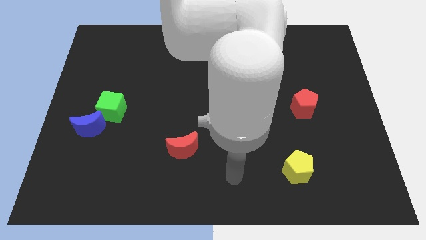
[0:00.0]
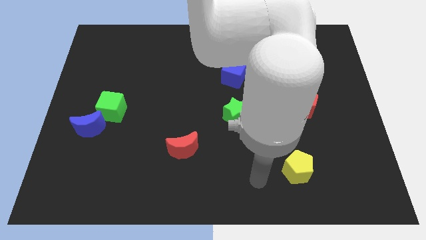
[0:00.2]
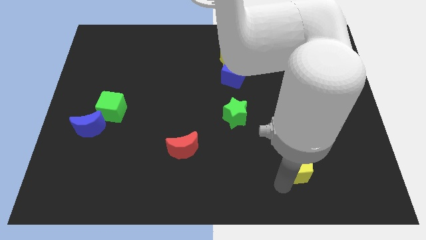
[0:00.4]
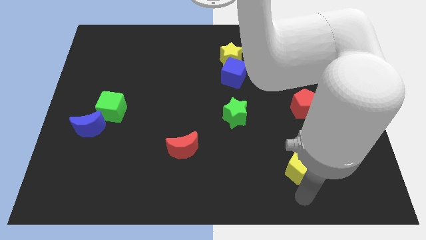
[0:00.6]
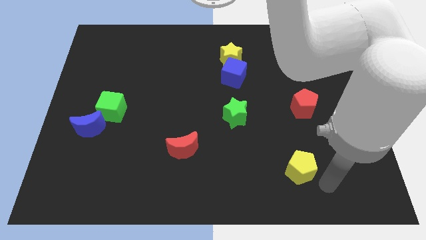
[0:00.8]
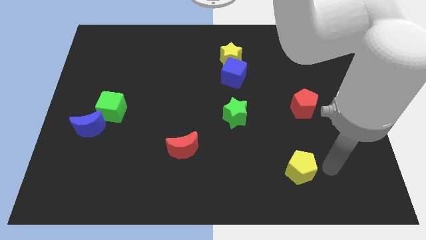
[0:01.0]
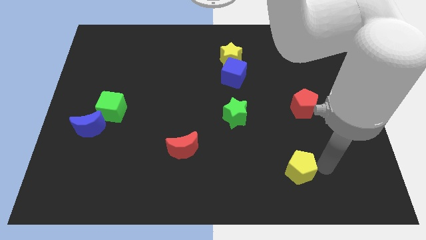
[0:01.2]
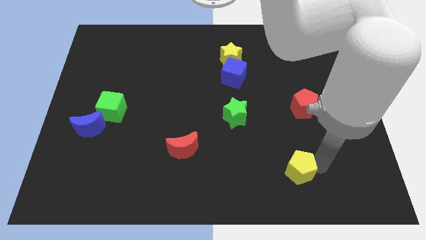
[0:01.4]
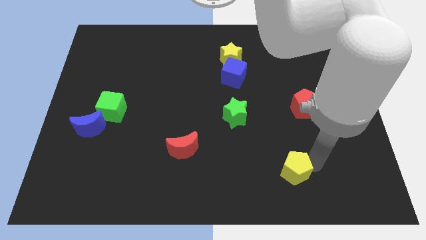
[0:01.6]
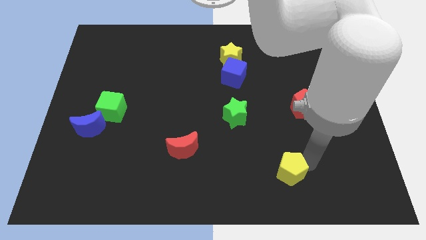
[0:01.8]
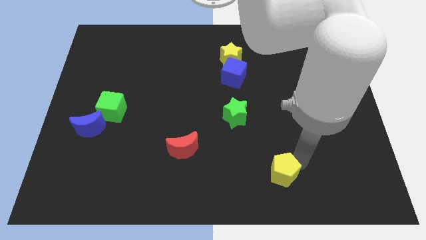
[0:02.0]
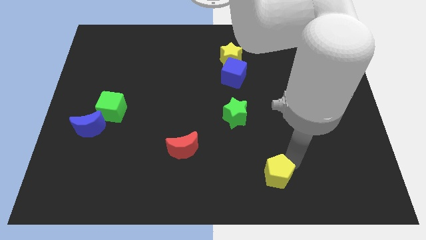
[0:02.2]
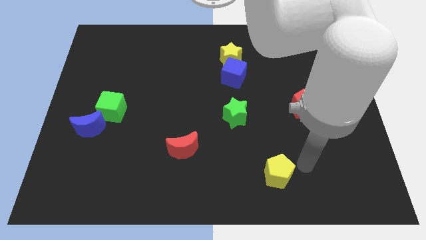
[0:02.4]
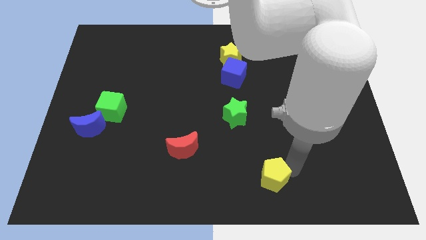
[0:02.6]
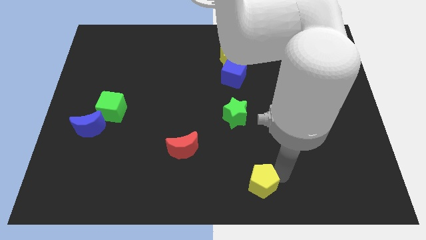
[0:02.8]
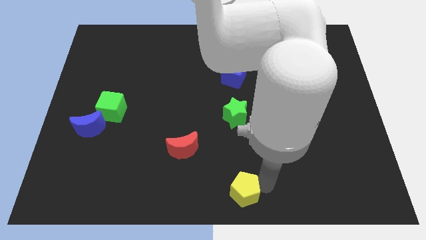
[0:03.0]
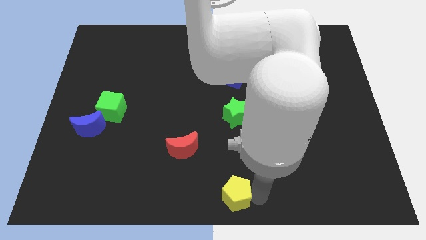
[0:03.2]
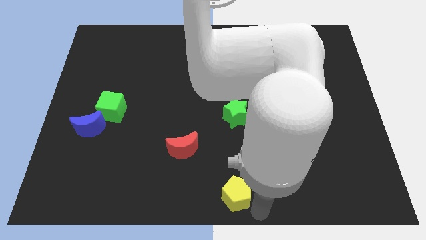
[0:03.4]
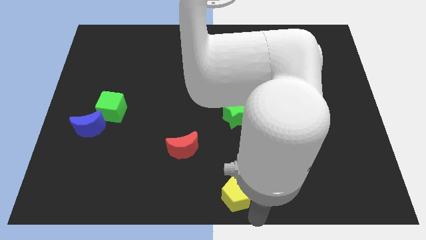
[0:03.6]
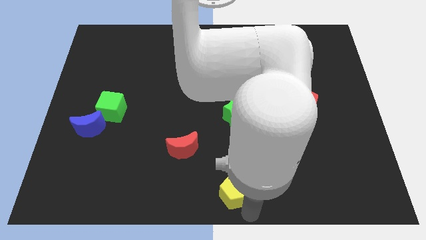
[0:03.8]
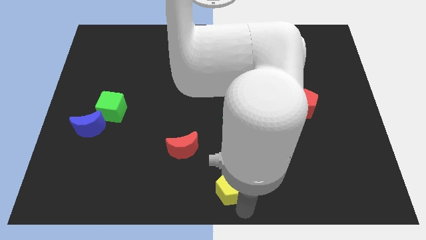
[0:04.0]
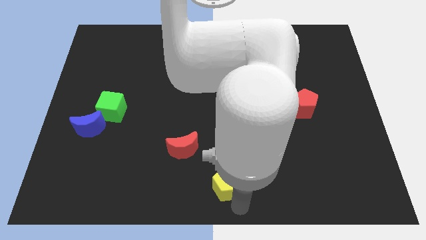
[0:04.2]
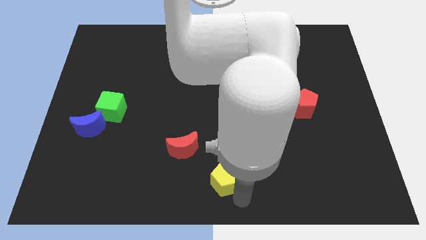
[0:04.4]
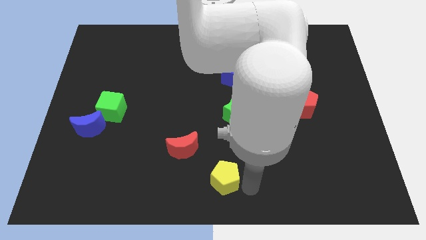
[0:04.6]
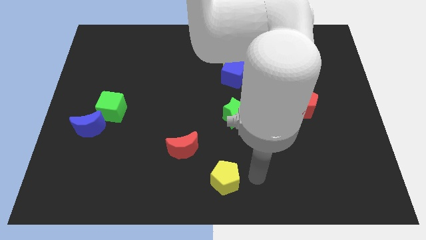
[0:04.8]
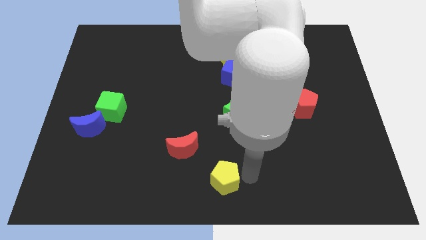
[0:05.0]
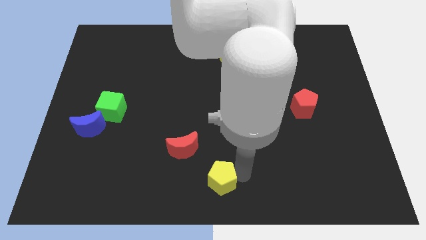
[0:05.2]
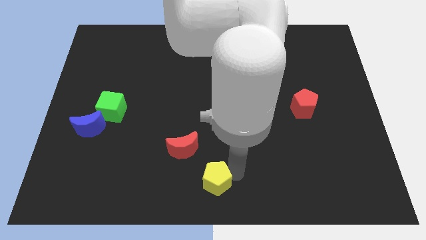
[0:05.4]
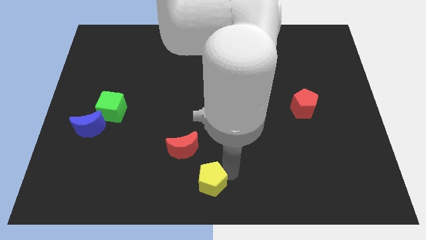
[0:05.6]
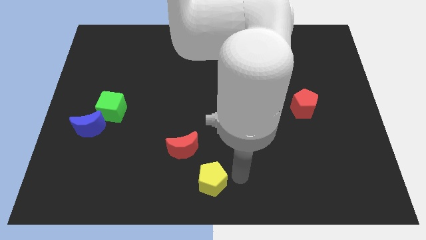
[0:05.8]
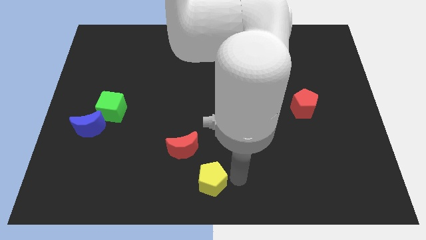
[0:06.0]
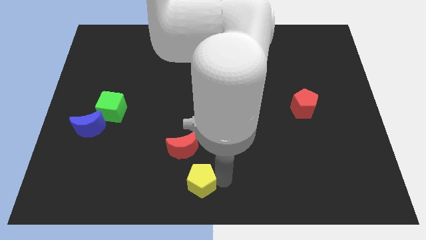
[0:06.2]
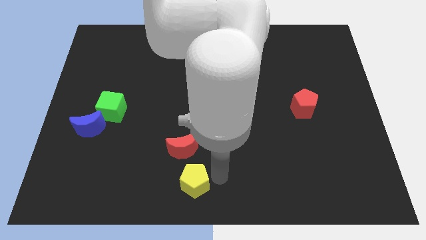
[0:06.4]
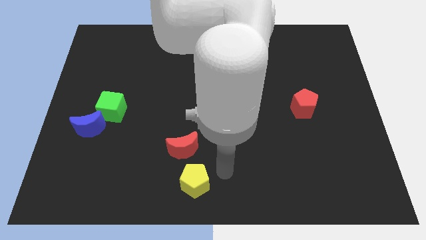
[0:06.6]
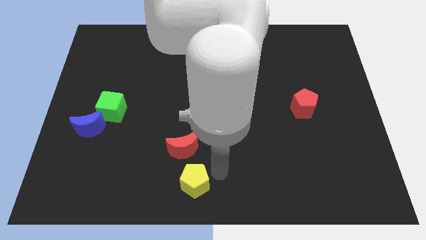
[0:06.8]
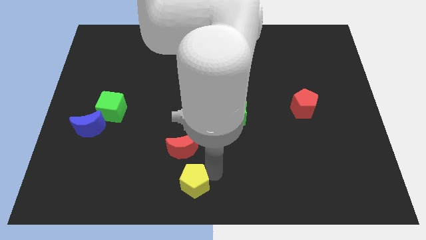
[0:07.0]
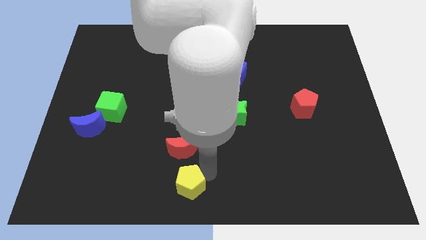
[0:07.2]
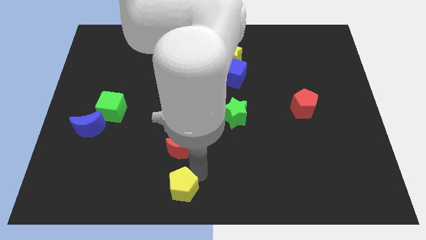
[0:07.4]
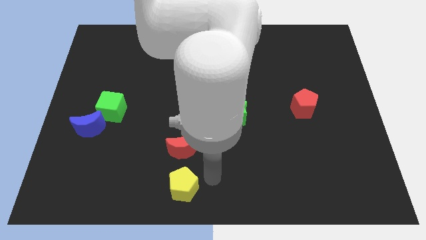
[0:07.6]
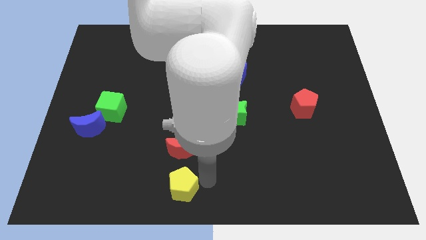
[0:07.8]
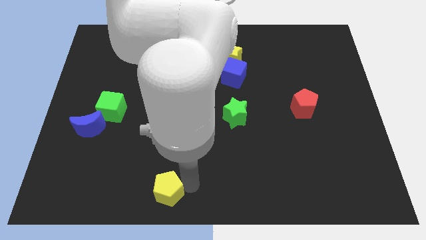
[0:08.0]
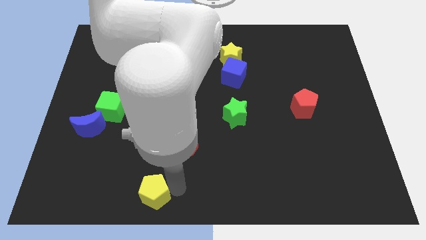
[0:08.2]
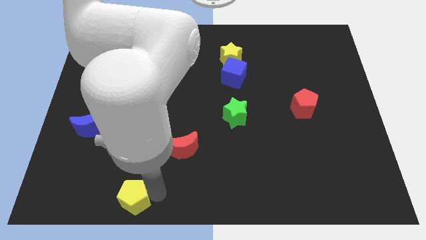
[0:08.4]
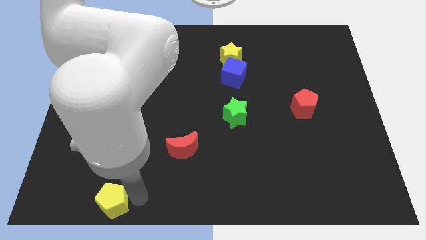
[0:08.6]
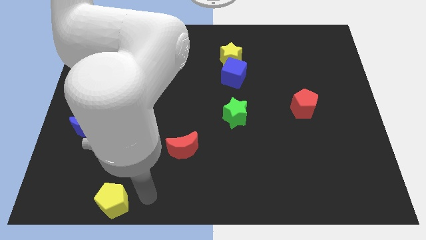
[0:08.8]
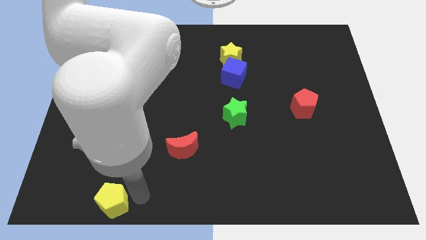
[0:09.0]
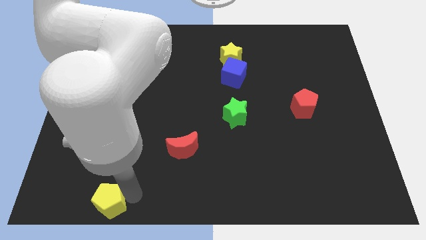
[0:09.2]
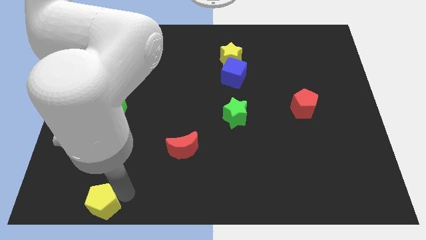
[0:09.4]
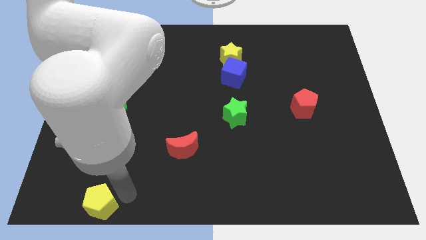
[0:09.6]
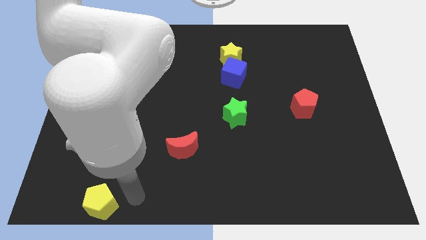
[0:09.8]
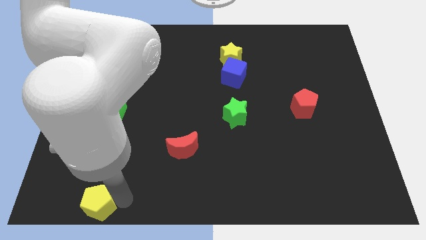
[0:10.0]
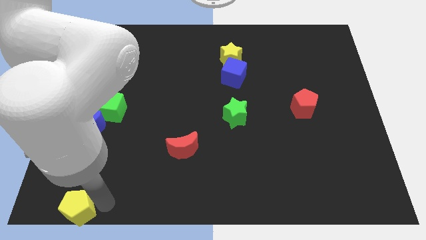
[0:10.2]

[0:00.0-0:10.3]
move the yellow pentagon to the bottom left of the board

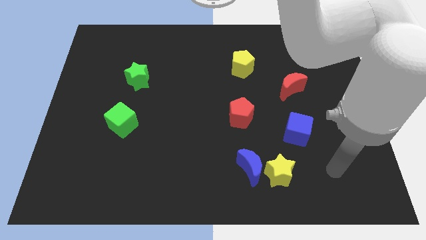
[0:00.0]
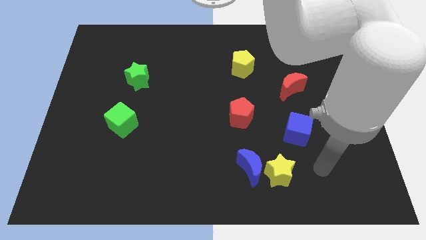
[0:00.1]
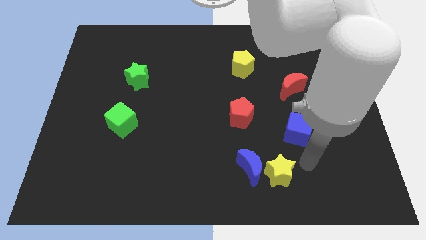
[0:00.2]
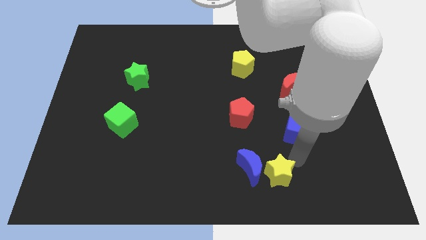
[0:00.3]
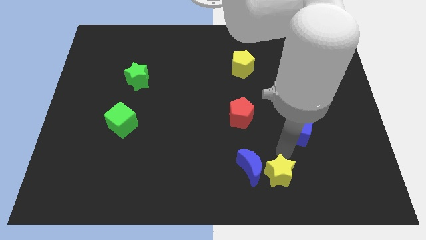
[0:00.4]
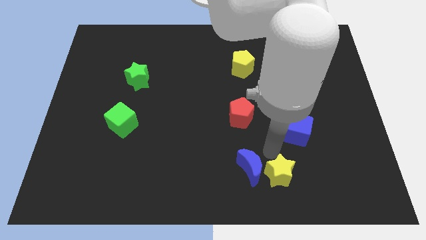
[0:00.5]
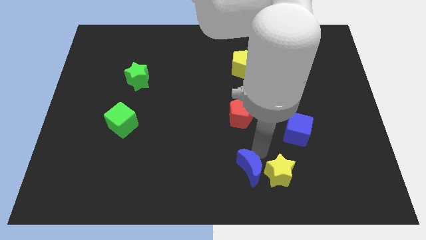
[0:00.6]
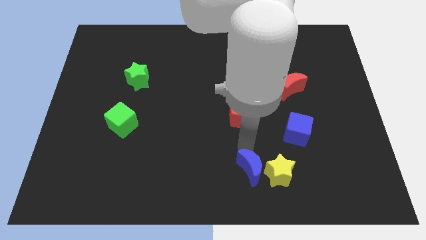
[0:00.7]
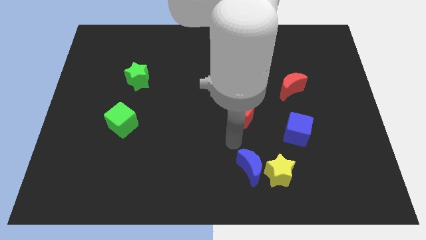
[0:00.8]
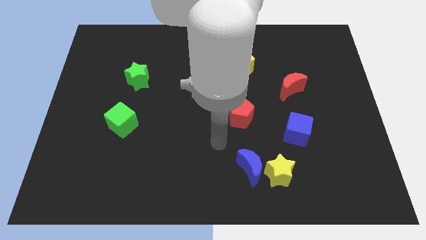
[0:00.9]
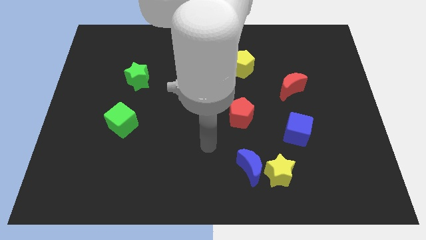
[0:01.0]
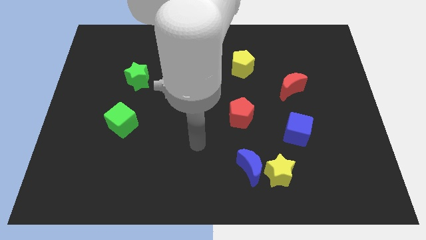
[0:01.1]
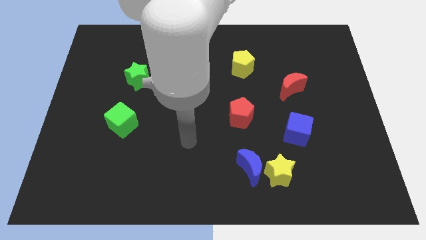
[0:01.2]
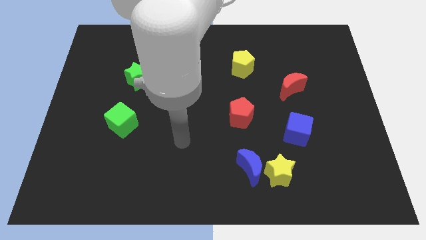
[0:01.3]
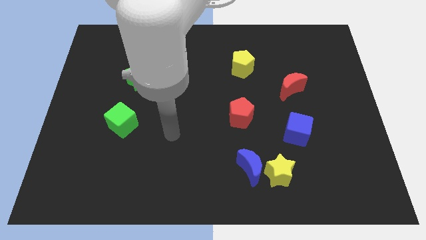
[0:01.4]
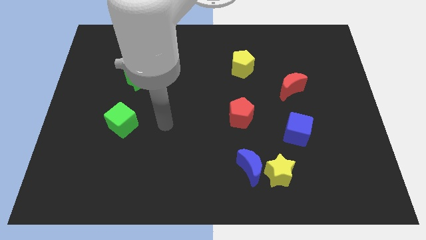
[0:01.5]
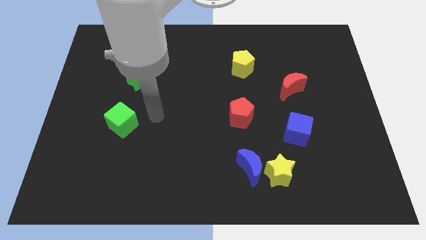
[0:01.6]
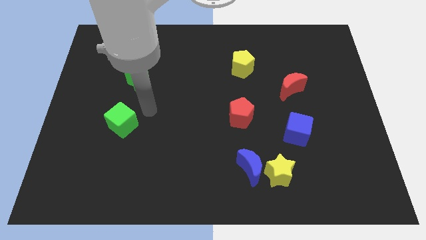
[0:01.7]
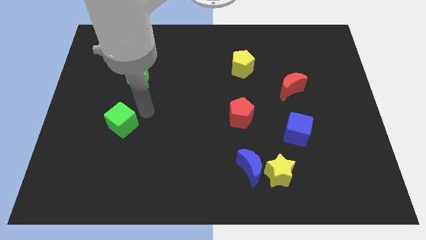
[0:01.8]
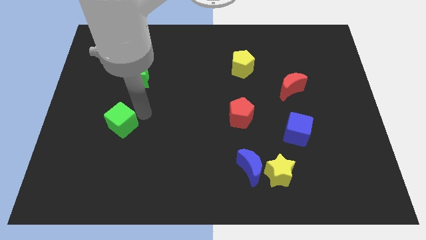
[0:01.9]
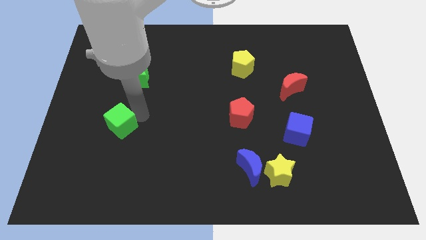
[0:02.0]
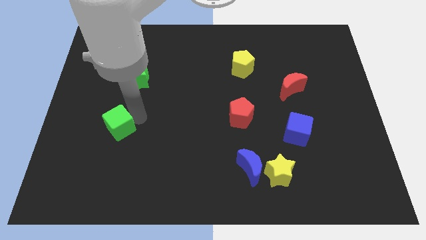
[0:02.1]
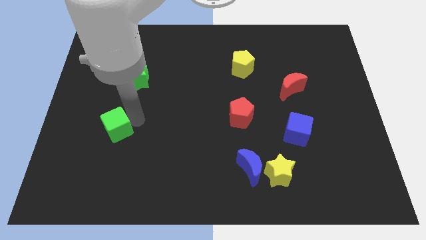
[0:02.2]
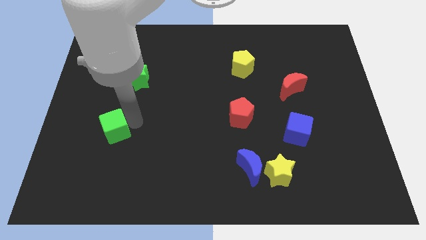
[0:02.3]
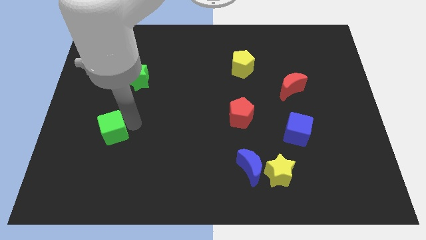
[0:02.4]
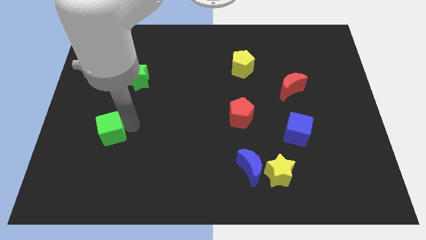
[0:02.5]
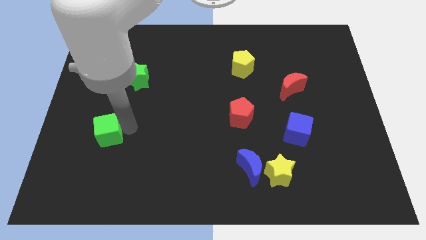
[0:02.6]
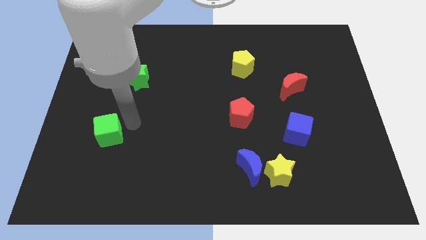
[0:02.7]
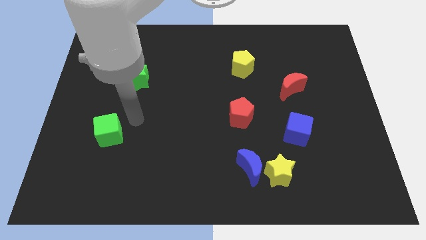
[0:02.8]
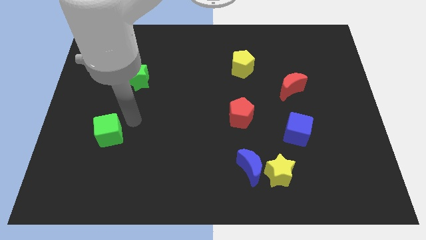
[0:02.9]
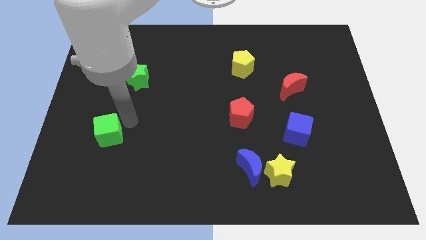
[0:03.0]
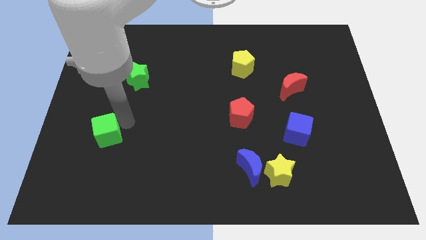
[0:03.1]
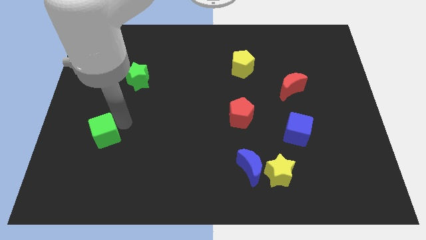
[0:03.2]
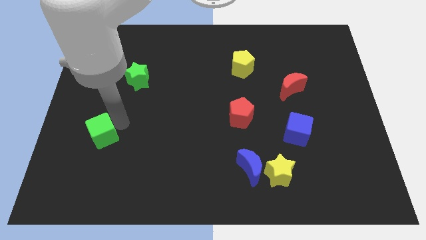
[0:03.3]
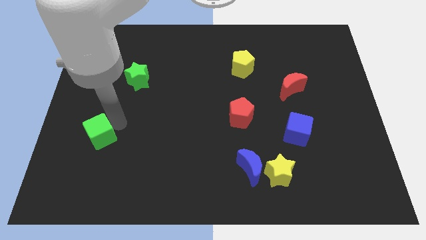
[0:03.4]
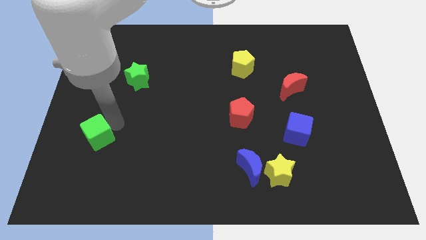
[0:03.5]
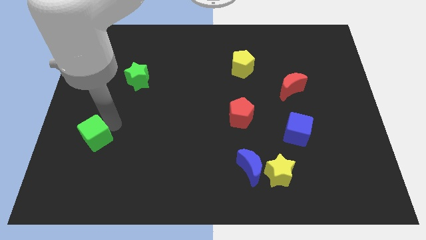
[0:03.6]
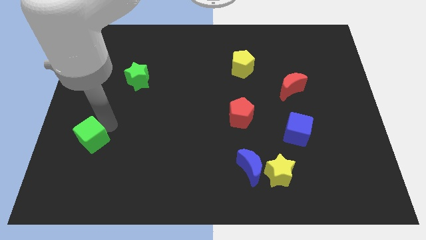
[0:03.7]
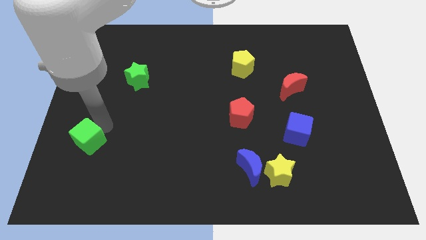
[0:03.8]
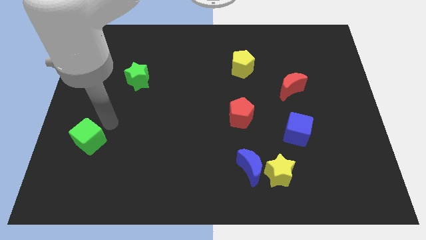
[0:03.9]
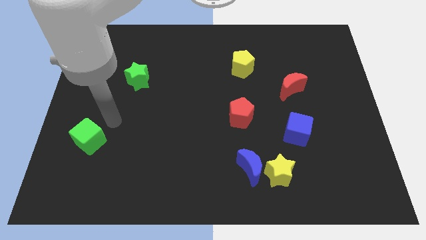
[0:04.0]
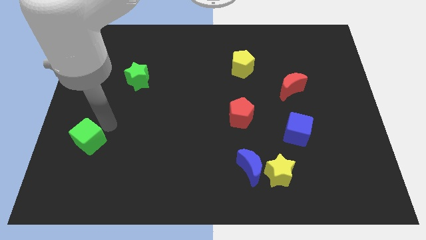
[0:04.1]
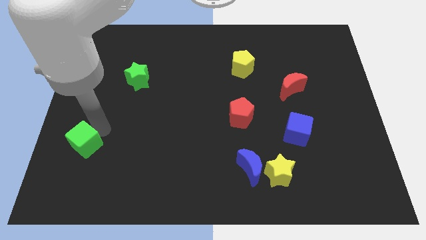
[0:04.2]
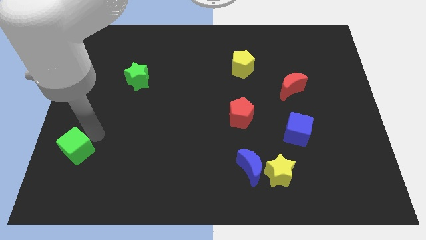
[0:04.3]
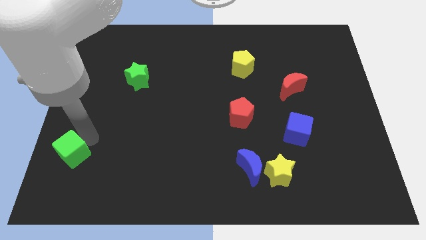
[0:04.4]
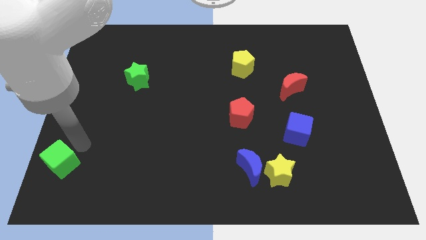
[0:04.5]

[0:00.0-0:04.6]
put the green cube to the lower left corner
